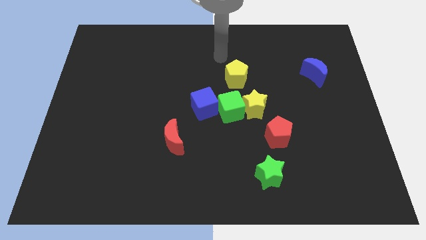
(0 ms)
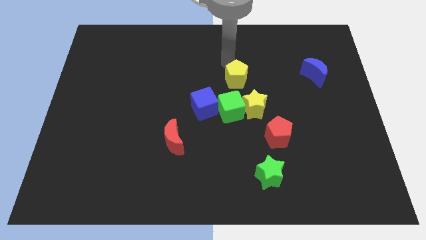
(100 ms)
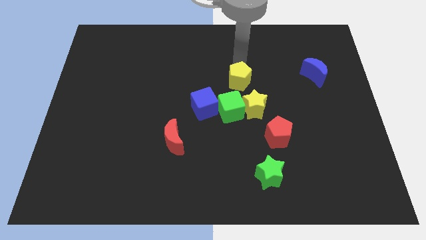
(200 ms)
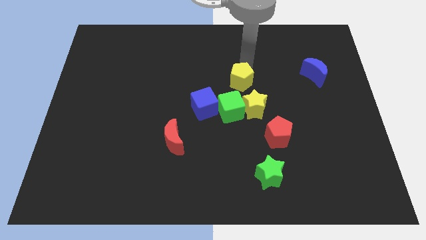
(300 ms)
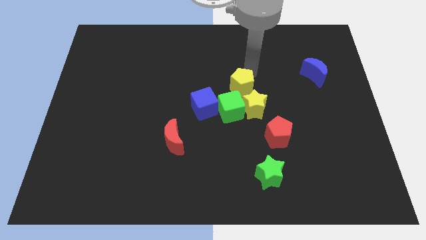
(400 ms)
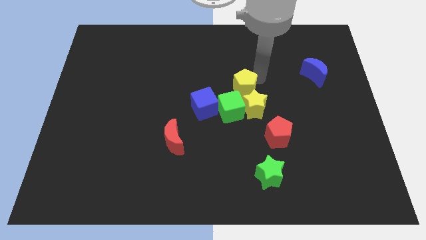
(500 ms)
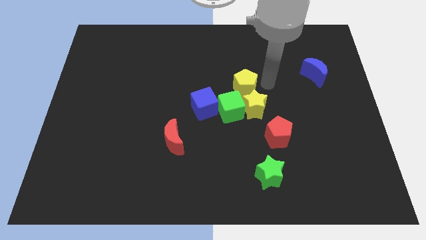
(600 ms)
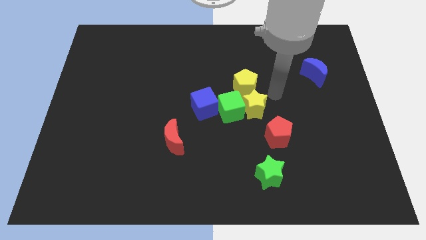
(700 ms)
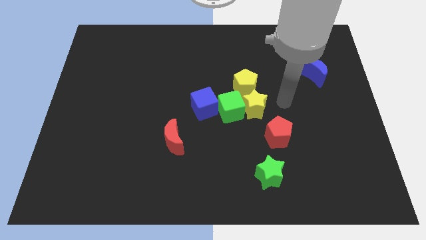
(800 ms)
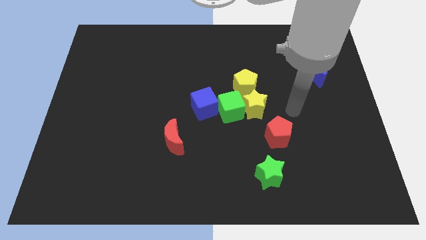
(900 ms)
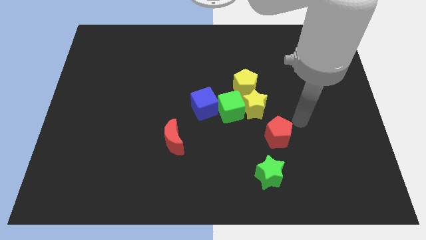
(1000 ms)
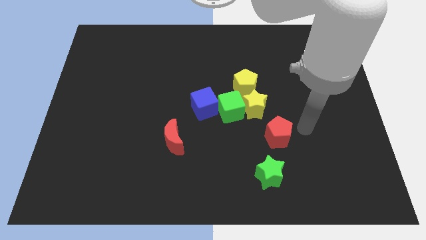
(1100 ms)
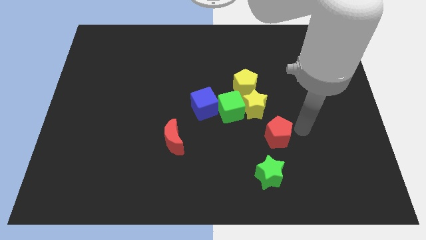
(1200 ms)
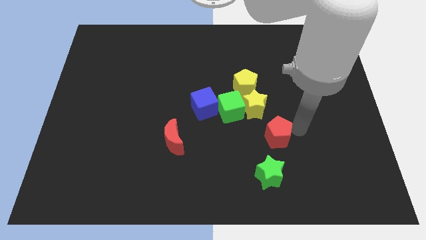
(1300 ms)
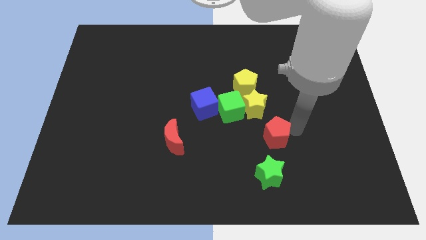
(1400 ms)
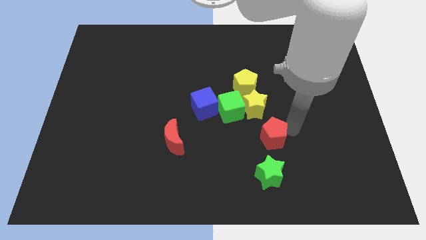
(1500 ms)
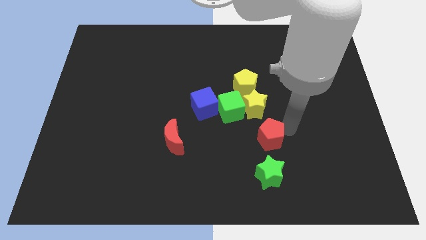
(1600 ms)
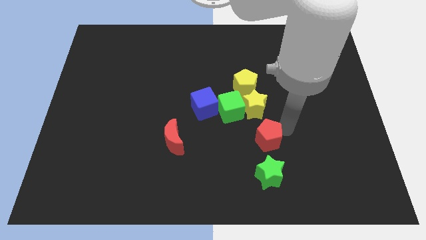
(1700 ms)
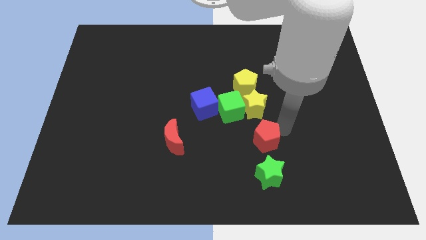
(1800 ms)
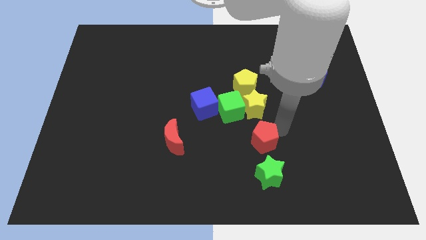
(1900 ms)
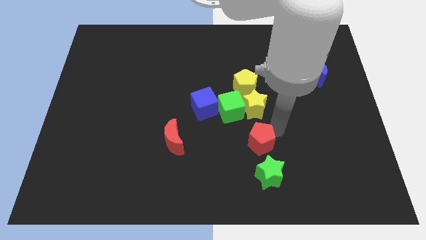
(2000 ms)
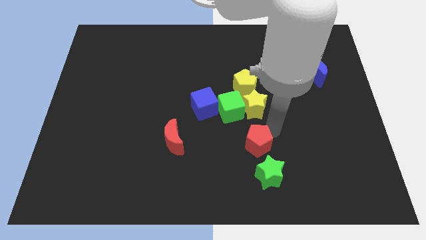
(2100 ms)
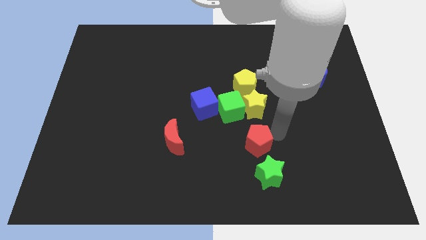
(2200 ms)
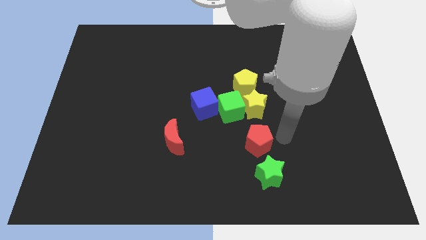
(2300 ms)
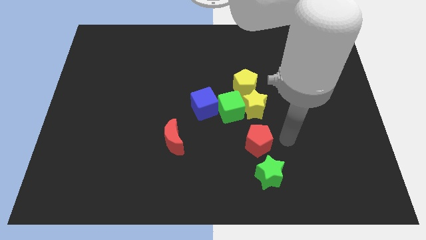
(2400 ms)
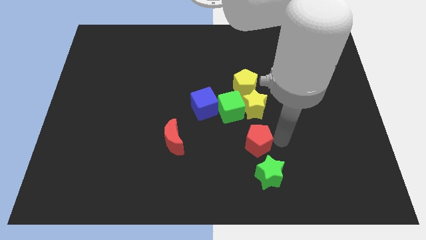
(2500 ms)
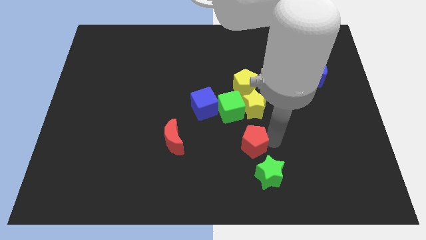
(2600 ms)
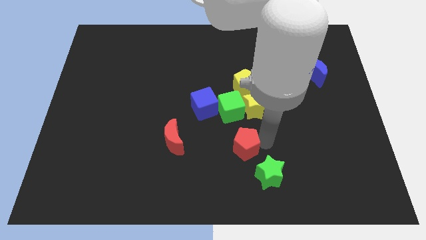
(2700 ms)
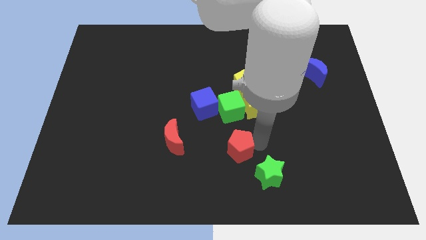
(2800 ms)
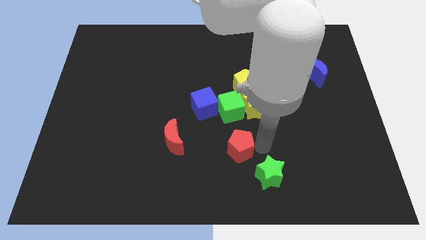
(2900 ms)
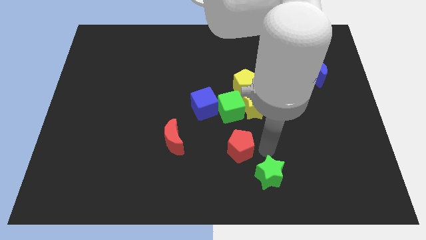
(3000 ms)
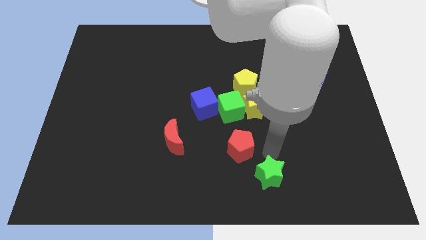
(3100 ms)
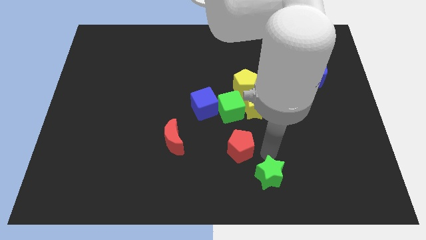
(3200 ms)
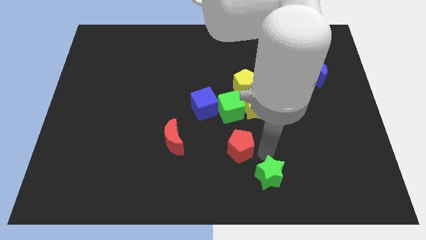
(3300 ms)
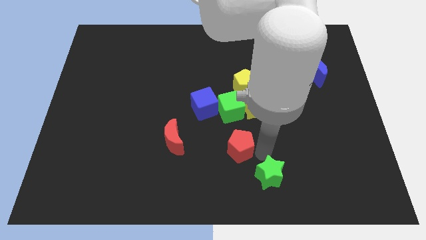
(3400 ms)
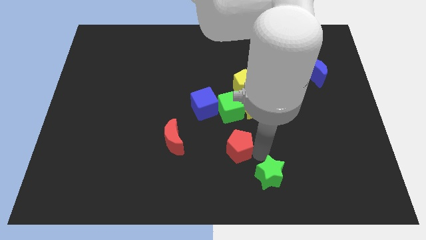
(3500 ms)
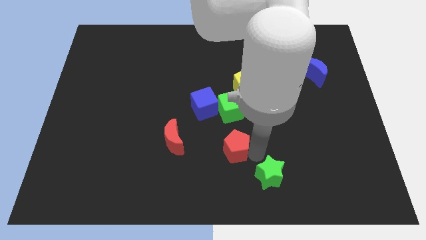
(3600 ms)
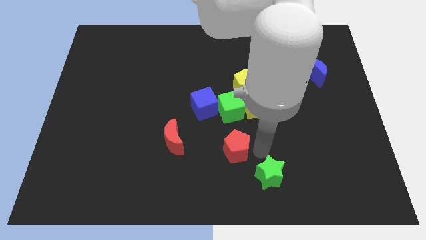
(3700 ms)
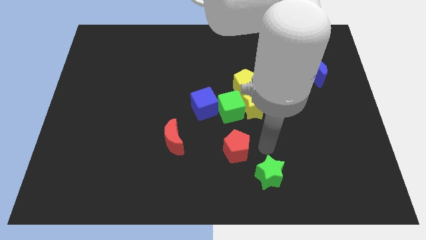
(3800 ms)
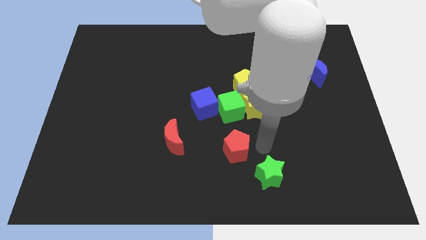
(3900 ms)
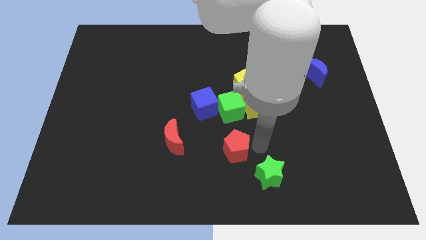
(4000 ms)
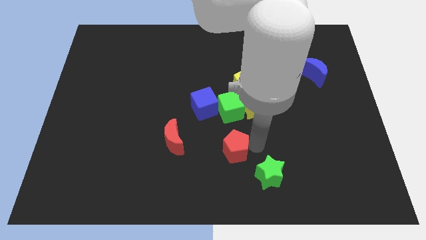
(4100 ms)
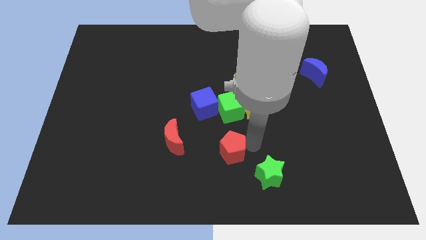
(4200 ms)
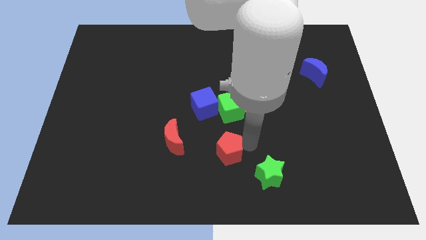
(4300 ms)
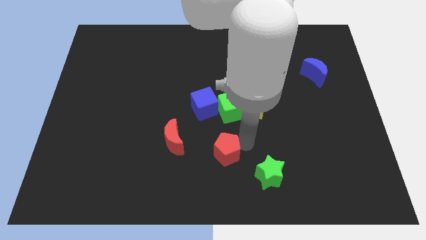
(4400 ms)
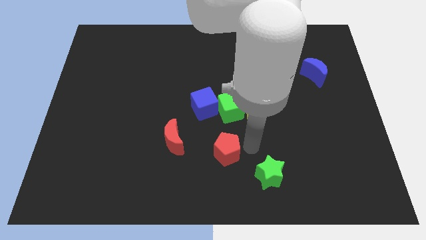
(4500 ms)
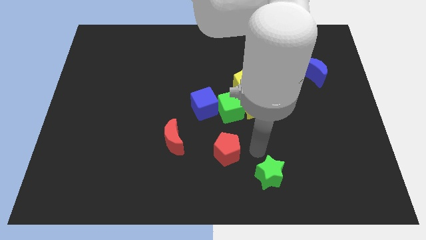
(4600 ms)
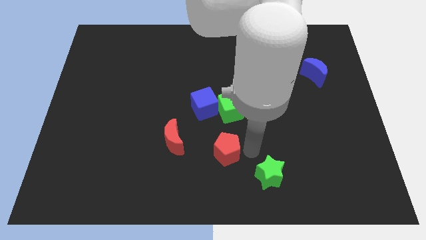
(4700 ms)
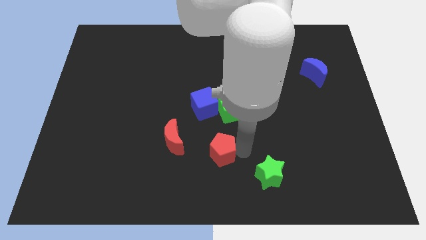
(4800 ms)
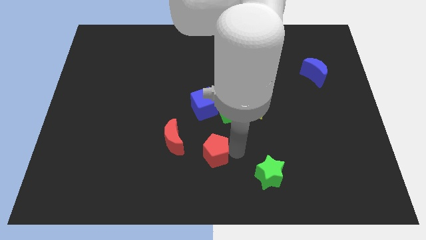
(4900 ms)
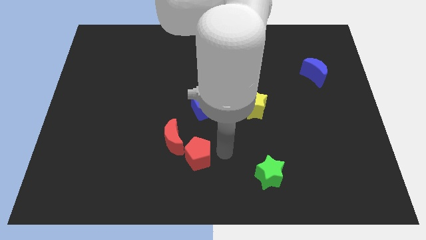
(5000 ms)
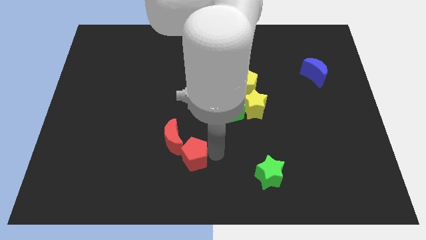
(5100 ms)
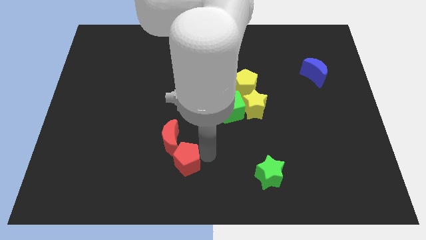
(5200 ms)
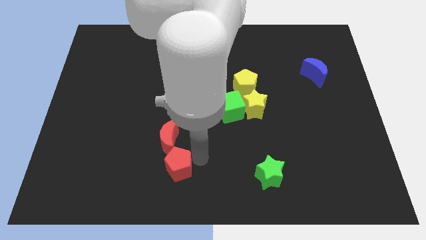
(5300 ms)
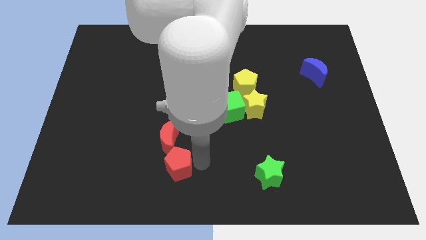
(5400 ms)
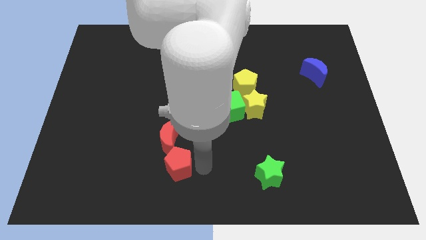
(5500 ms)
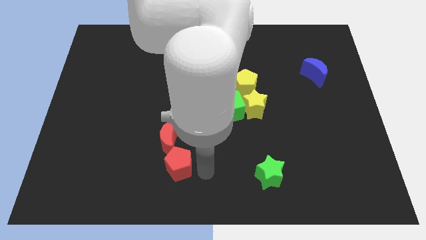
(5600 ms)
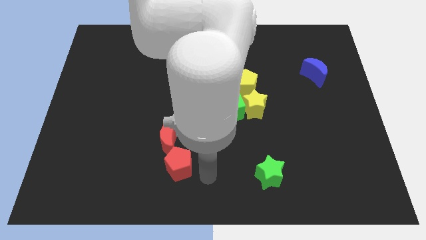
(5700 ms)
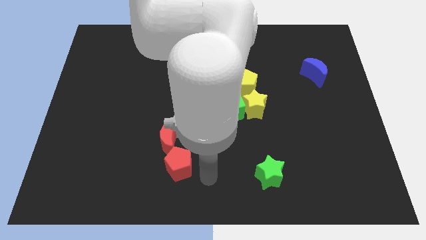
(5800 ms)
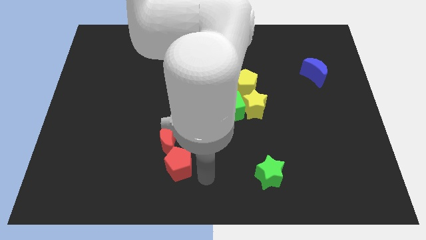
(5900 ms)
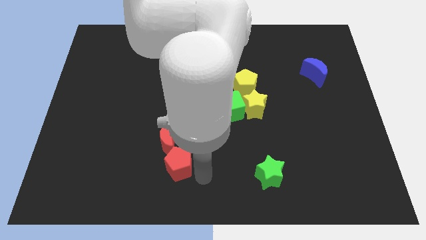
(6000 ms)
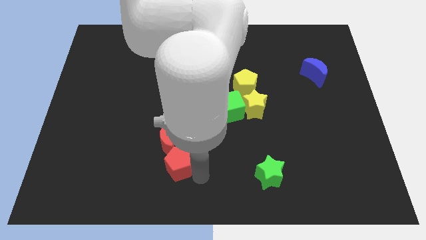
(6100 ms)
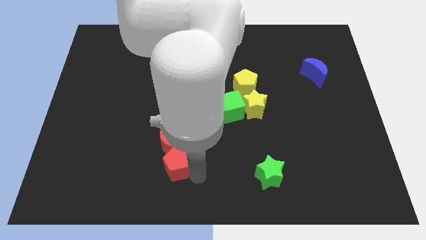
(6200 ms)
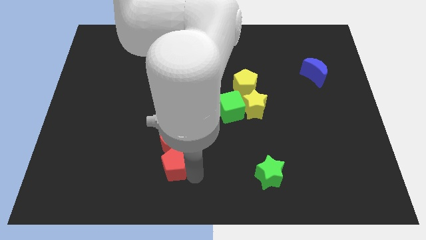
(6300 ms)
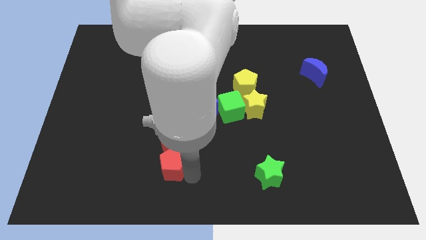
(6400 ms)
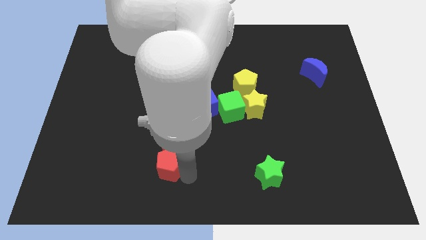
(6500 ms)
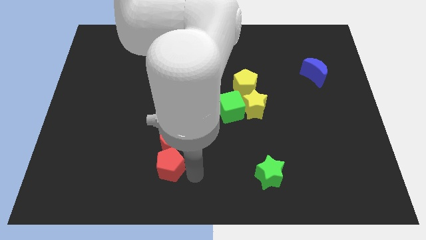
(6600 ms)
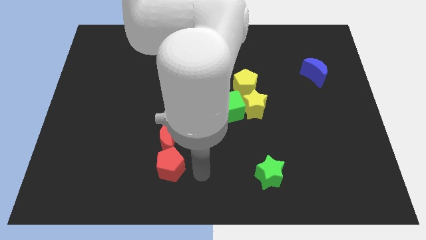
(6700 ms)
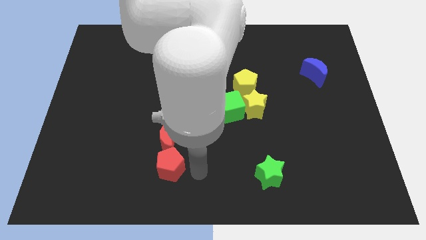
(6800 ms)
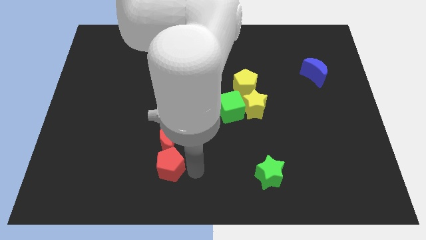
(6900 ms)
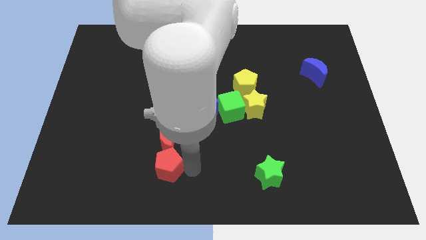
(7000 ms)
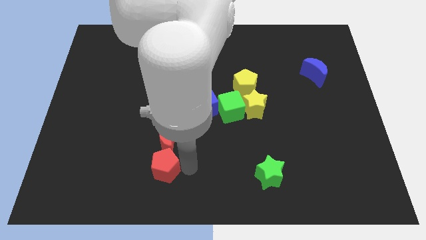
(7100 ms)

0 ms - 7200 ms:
move the red pentagon to the bottom left side of the red moon
